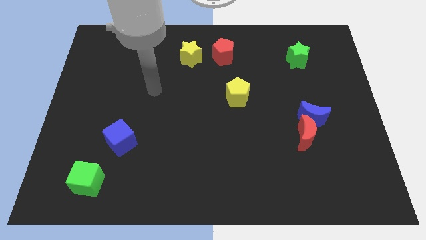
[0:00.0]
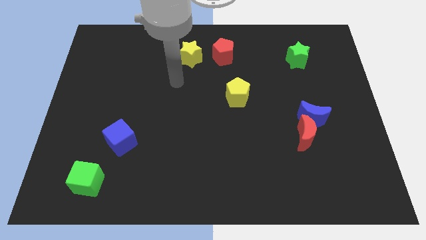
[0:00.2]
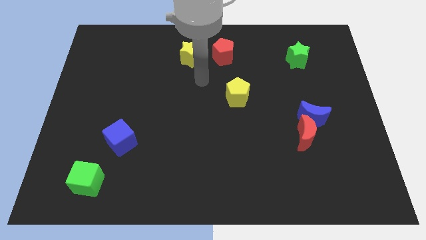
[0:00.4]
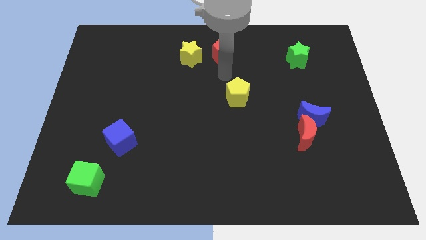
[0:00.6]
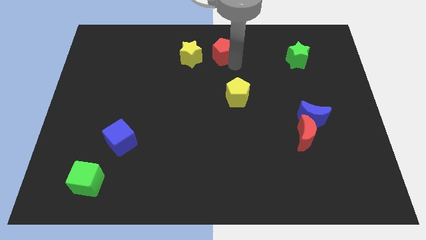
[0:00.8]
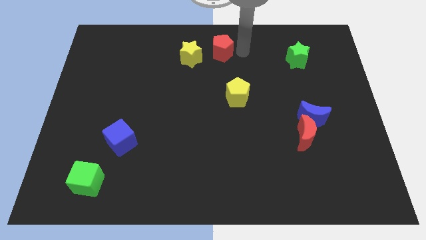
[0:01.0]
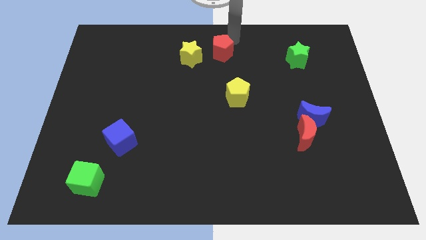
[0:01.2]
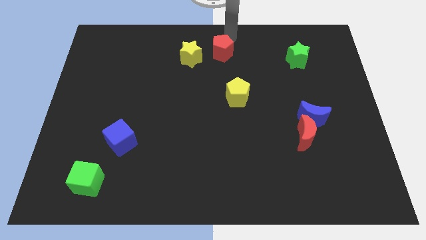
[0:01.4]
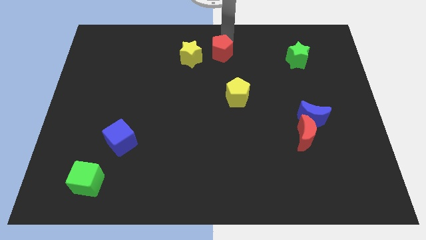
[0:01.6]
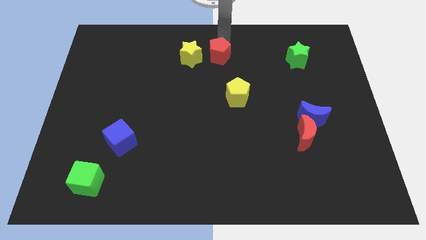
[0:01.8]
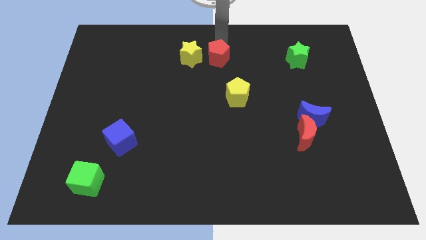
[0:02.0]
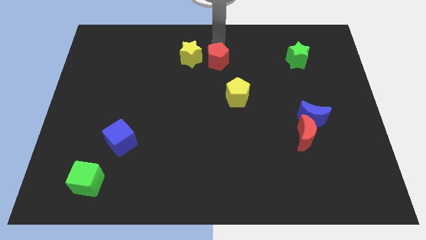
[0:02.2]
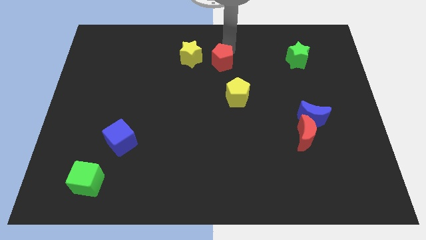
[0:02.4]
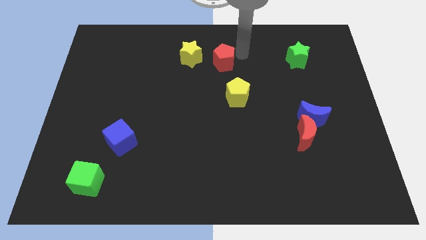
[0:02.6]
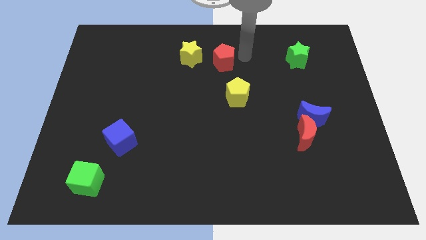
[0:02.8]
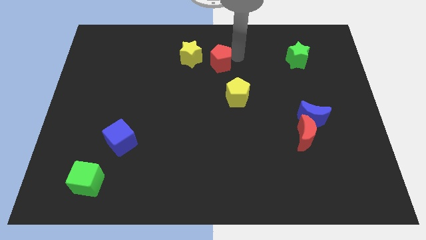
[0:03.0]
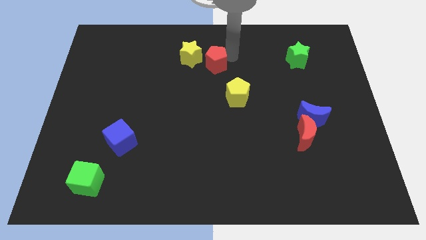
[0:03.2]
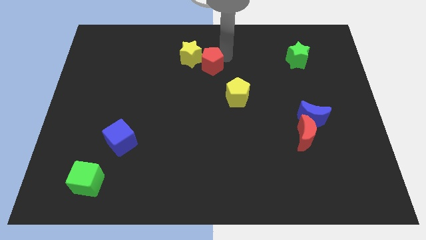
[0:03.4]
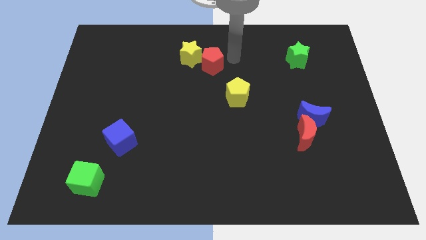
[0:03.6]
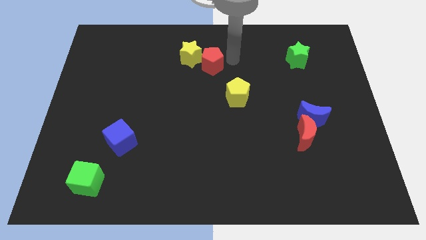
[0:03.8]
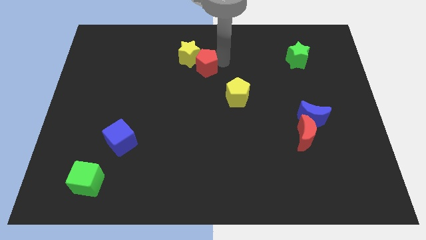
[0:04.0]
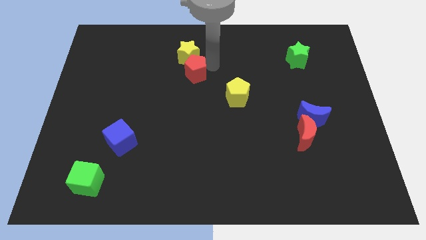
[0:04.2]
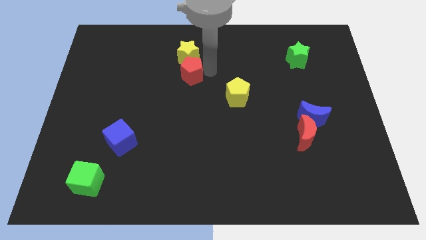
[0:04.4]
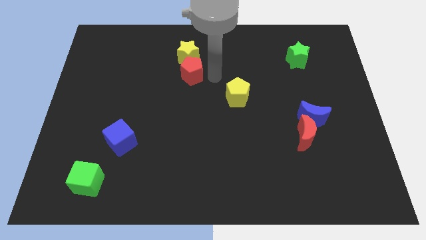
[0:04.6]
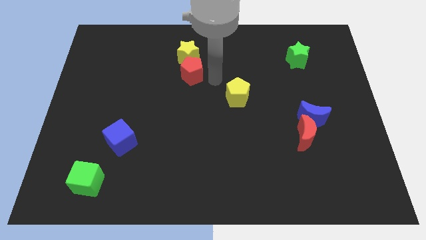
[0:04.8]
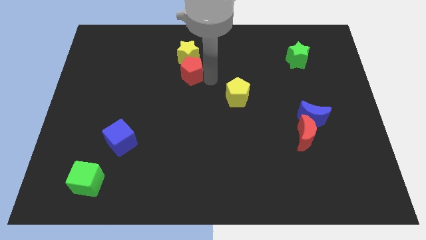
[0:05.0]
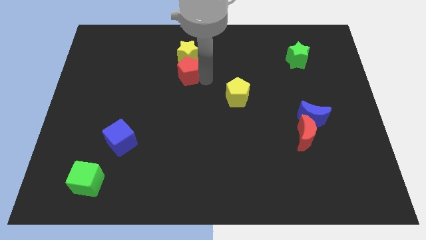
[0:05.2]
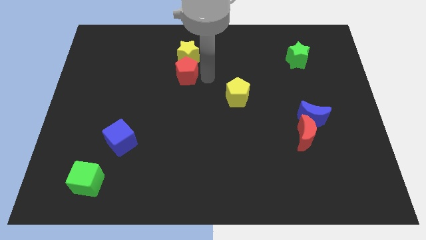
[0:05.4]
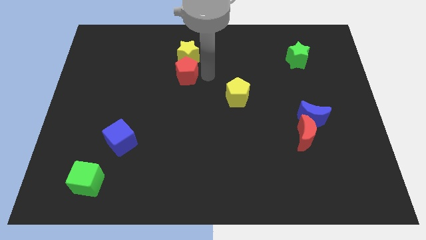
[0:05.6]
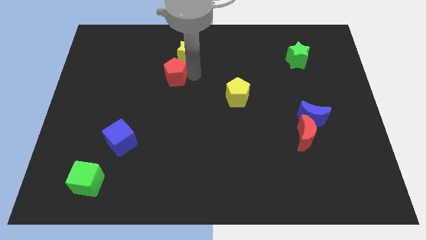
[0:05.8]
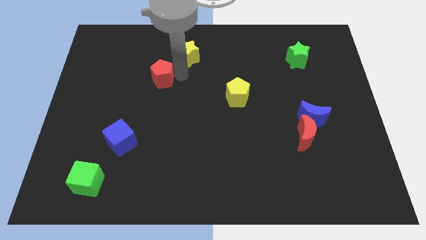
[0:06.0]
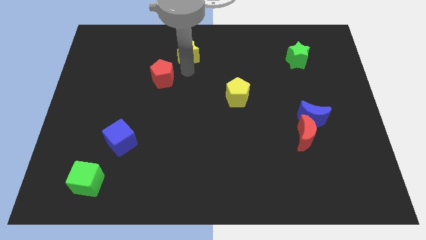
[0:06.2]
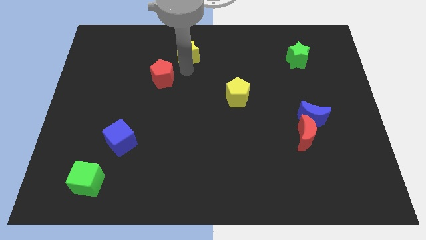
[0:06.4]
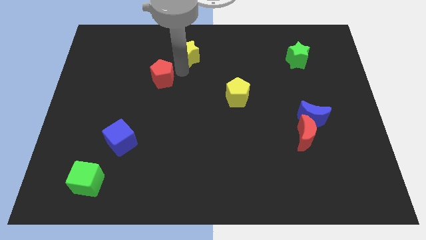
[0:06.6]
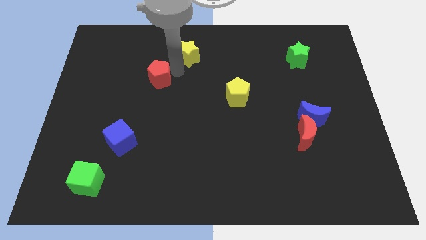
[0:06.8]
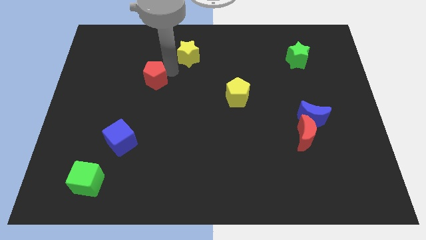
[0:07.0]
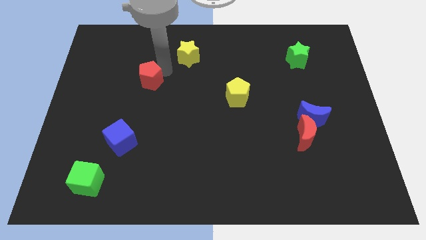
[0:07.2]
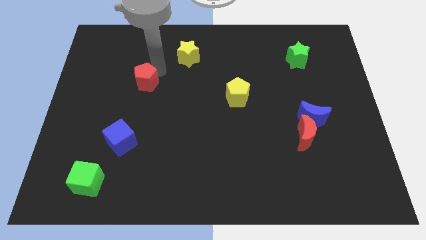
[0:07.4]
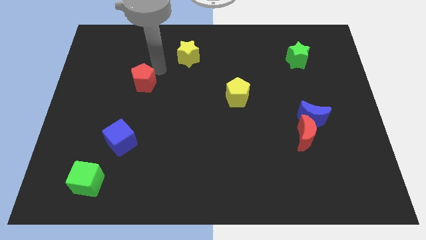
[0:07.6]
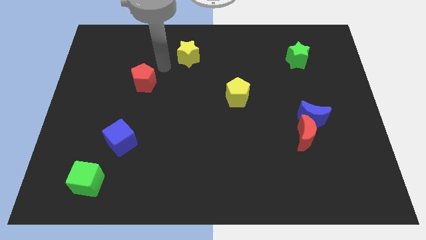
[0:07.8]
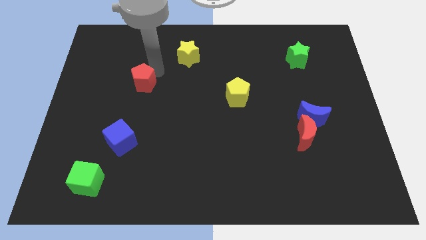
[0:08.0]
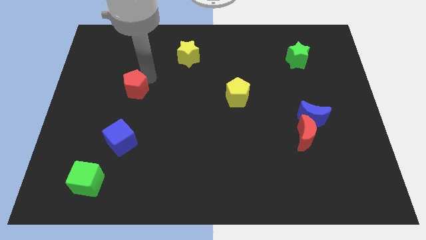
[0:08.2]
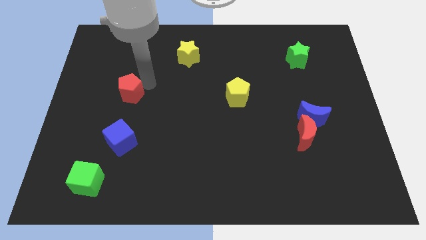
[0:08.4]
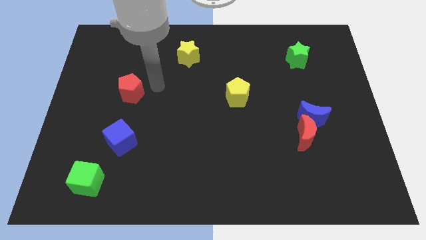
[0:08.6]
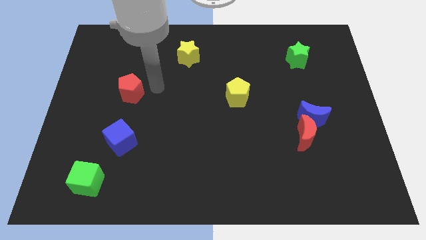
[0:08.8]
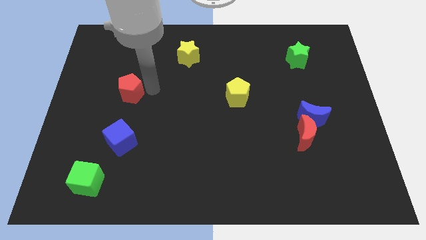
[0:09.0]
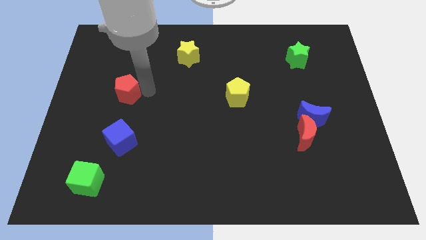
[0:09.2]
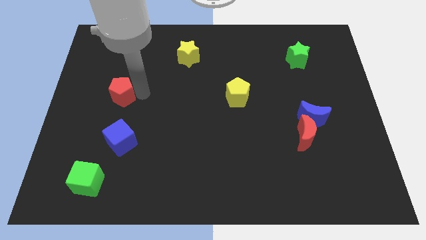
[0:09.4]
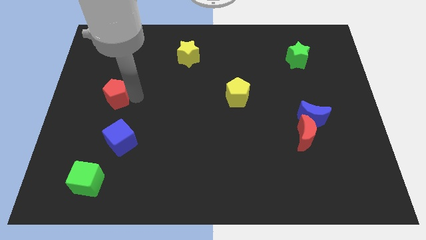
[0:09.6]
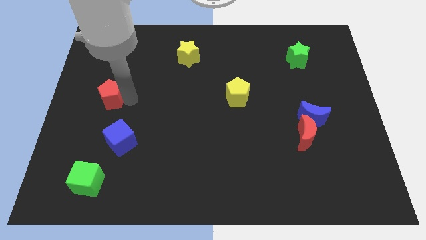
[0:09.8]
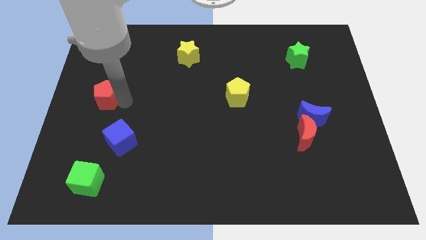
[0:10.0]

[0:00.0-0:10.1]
move the red pentagon to the left side of the board
